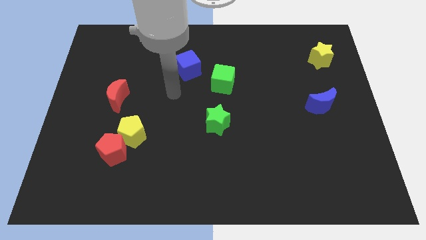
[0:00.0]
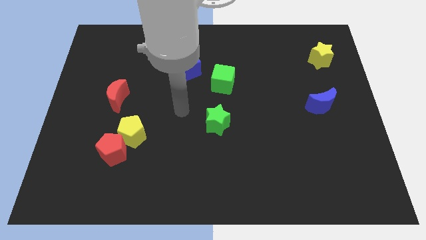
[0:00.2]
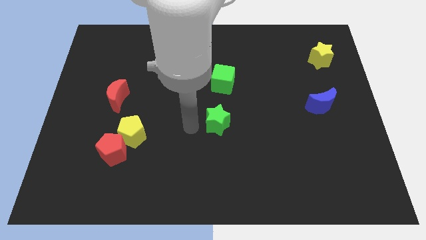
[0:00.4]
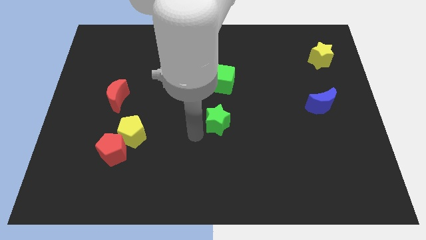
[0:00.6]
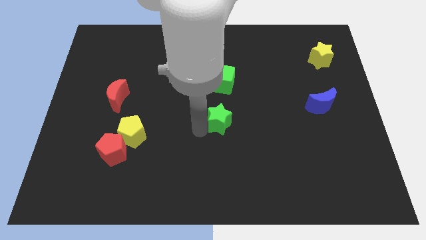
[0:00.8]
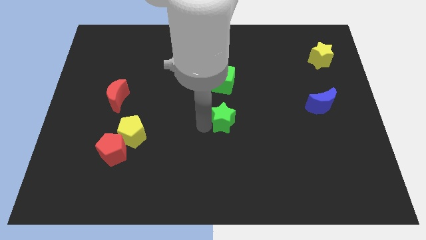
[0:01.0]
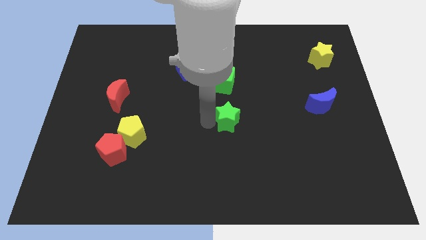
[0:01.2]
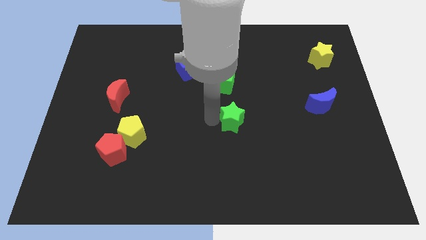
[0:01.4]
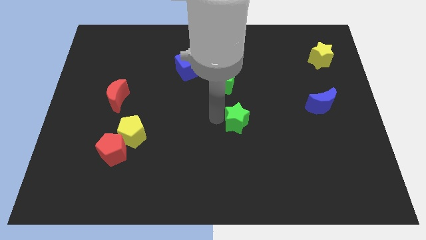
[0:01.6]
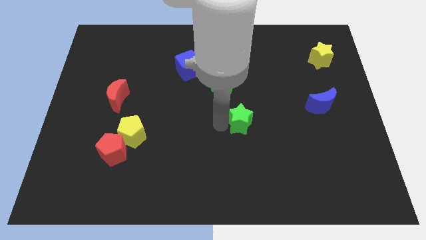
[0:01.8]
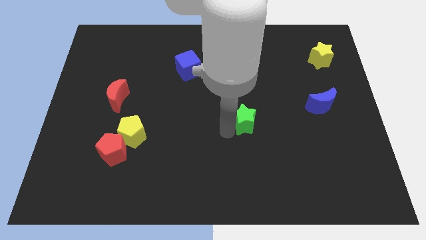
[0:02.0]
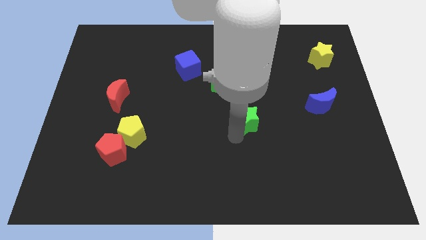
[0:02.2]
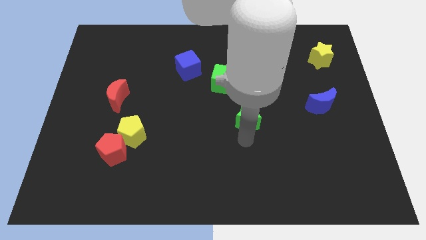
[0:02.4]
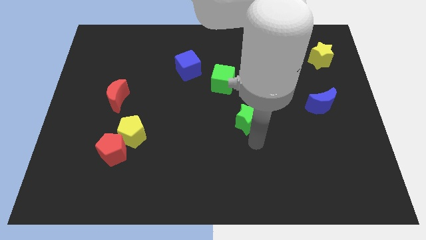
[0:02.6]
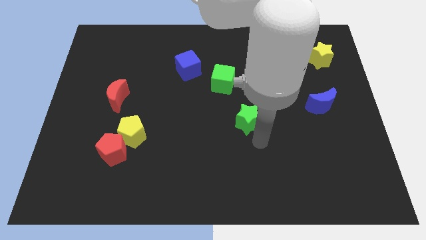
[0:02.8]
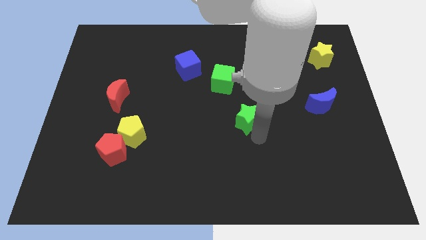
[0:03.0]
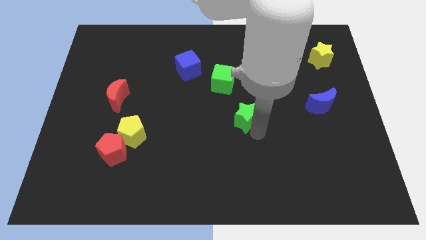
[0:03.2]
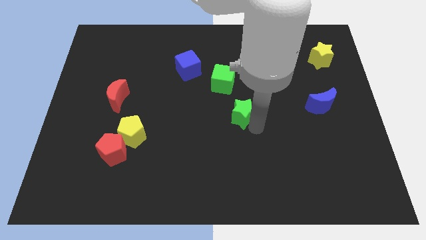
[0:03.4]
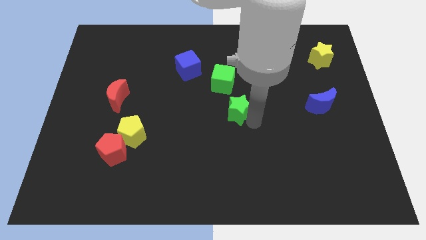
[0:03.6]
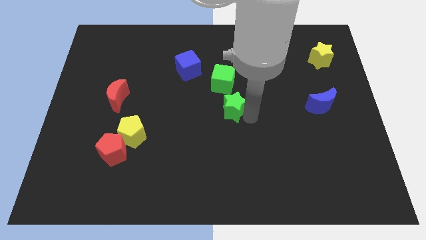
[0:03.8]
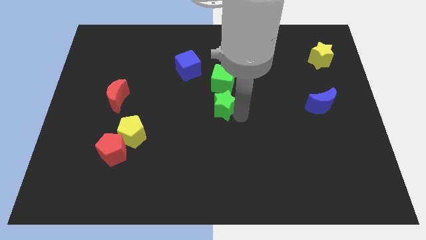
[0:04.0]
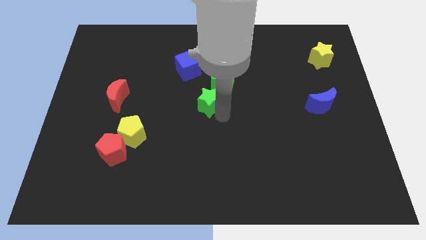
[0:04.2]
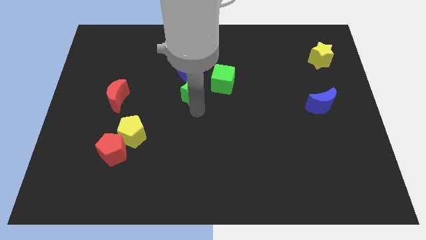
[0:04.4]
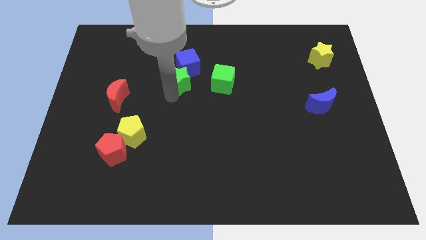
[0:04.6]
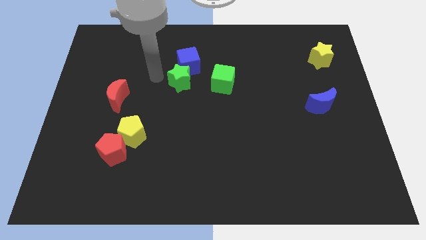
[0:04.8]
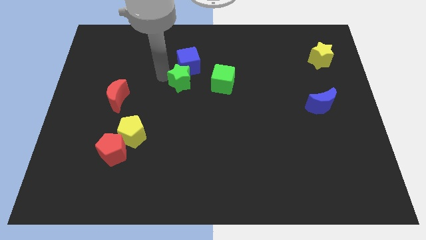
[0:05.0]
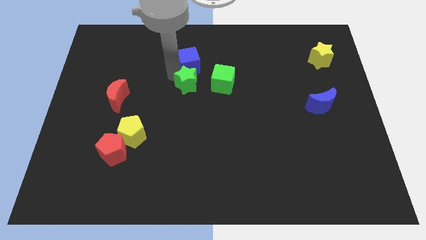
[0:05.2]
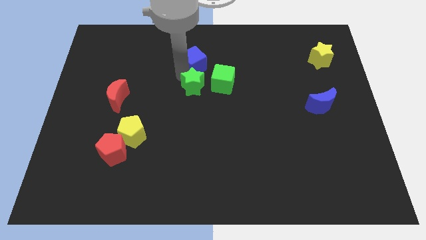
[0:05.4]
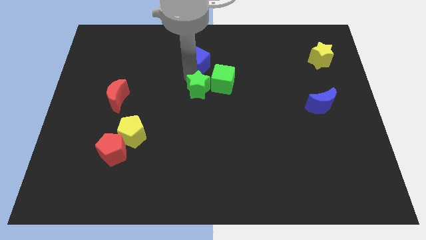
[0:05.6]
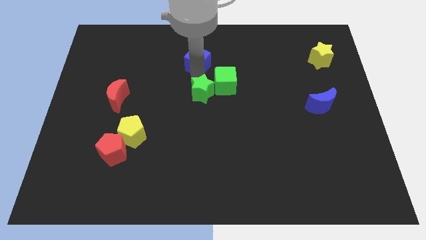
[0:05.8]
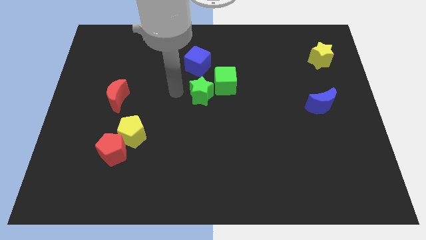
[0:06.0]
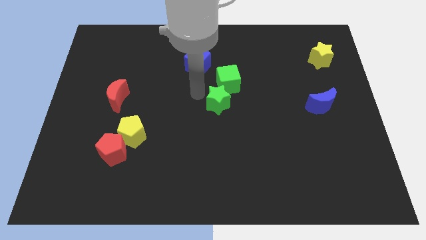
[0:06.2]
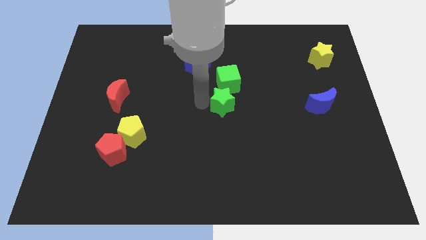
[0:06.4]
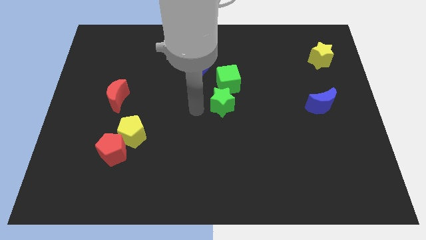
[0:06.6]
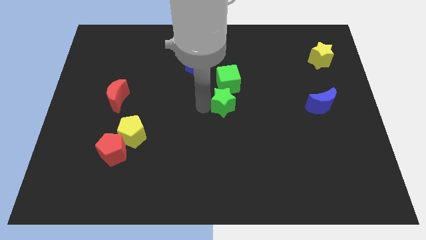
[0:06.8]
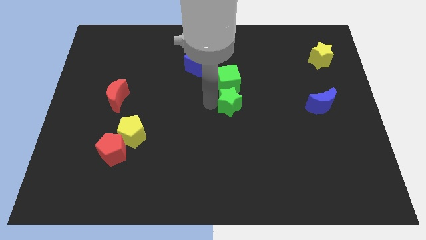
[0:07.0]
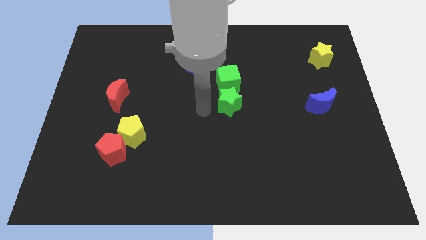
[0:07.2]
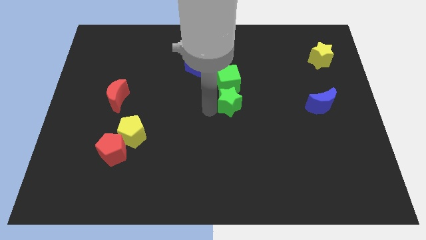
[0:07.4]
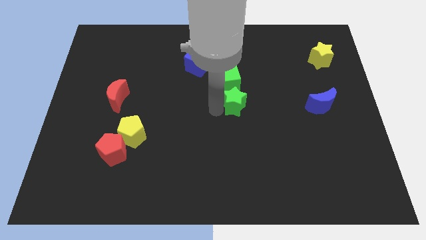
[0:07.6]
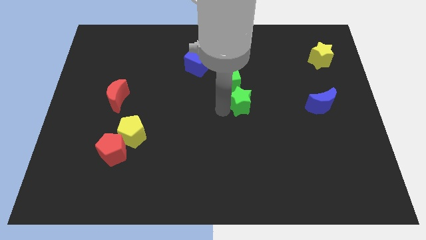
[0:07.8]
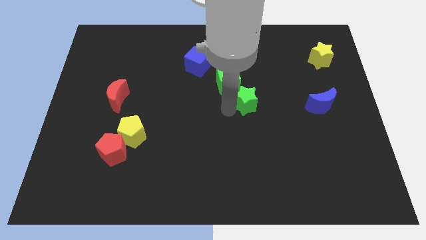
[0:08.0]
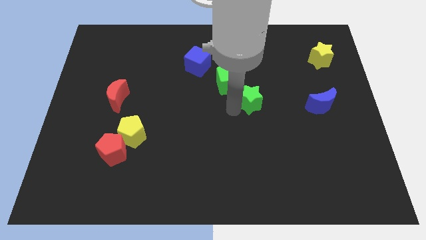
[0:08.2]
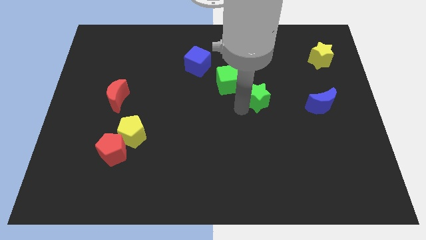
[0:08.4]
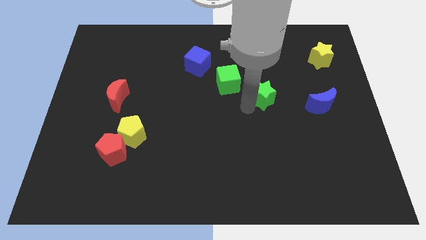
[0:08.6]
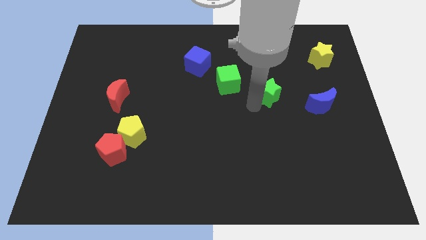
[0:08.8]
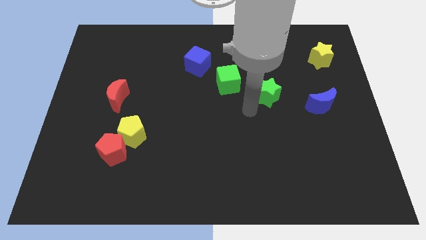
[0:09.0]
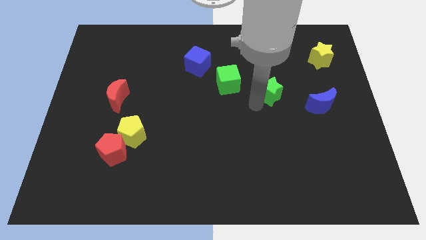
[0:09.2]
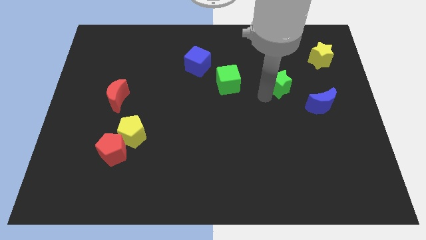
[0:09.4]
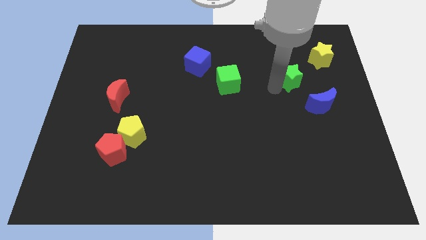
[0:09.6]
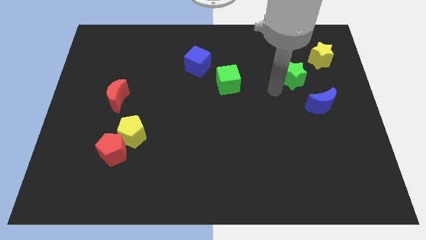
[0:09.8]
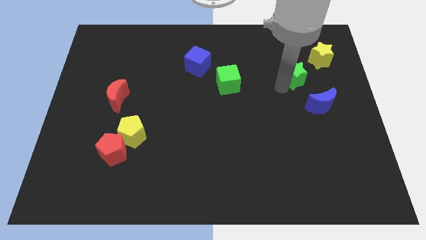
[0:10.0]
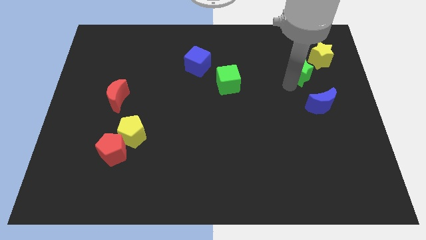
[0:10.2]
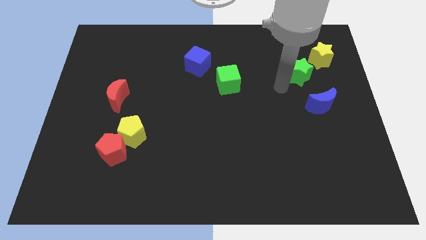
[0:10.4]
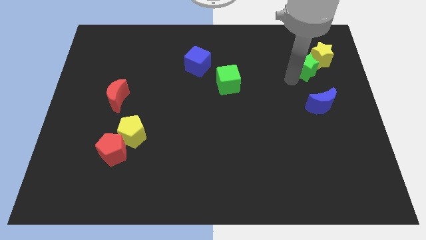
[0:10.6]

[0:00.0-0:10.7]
put the green star towards the yellow star

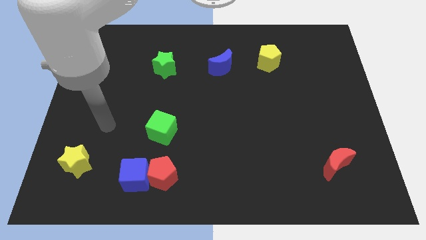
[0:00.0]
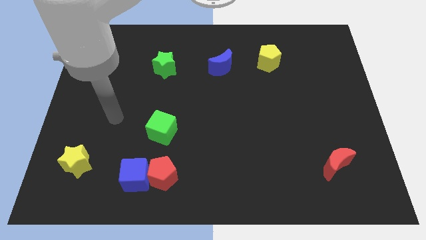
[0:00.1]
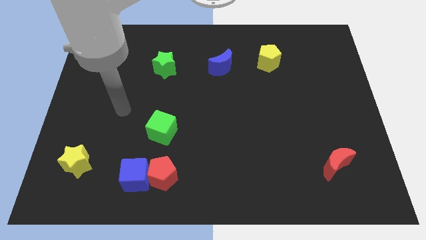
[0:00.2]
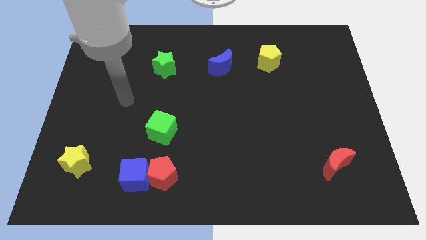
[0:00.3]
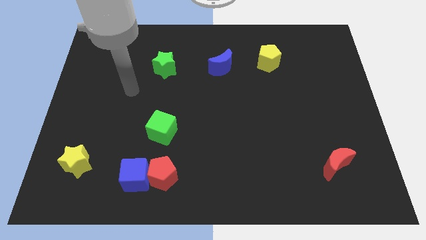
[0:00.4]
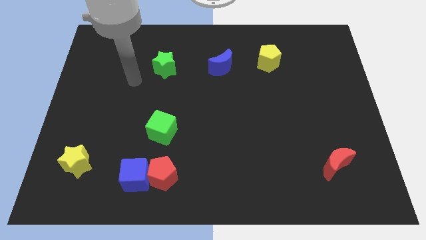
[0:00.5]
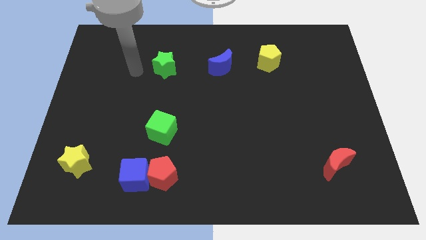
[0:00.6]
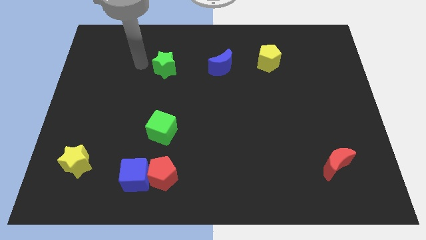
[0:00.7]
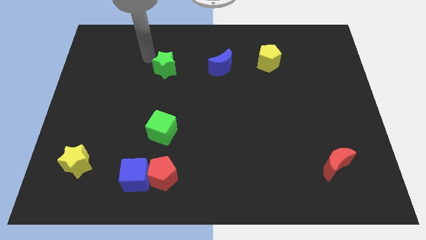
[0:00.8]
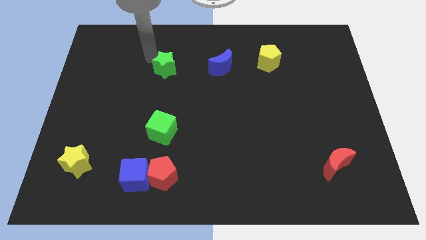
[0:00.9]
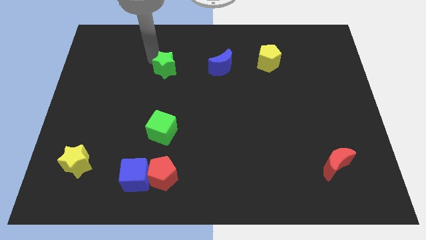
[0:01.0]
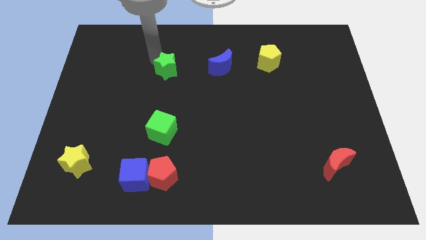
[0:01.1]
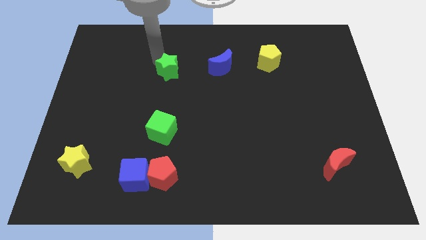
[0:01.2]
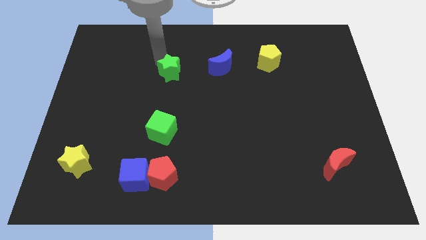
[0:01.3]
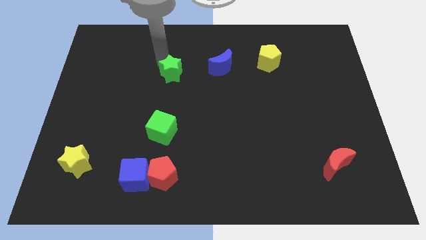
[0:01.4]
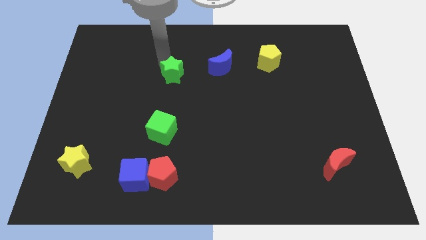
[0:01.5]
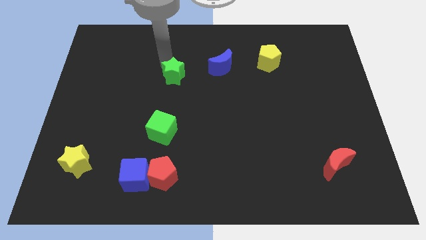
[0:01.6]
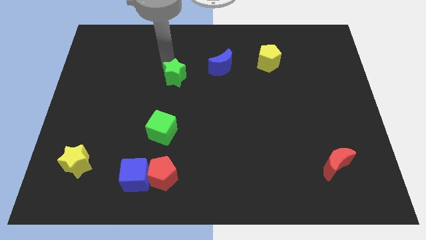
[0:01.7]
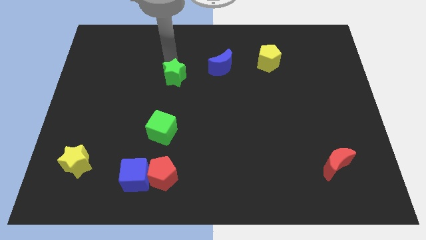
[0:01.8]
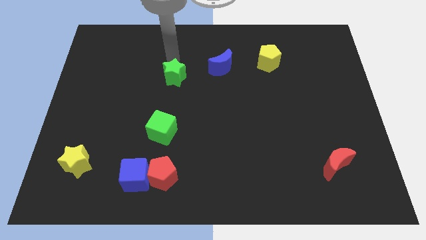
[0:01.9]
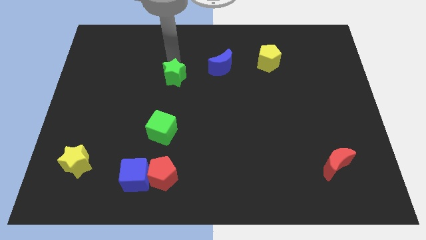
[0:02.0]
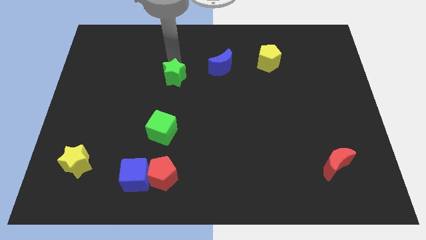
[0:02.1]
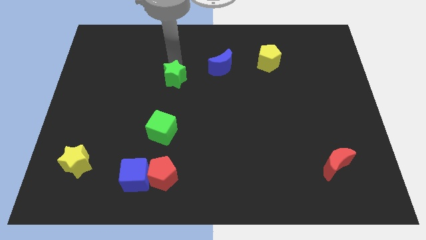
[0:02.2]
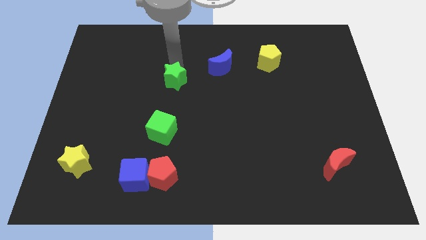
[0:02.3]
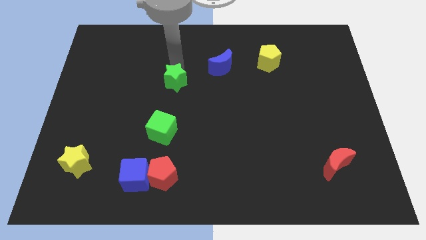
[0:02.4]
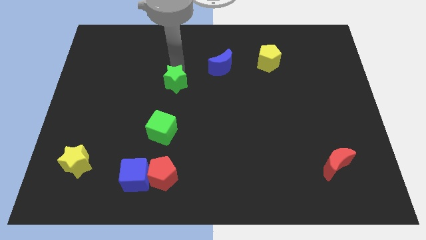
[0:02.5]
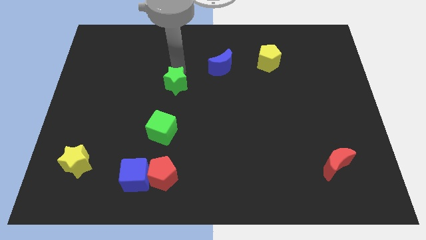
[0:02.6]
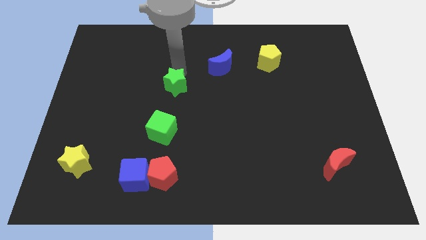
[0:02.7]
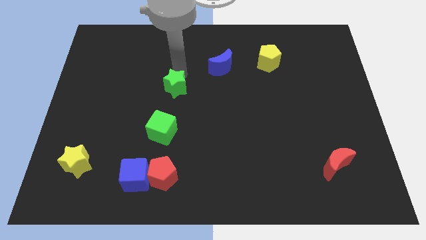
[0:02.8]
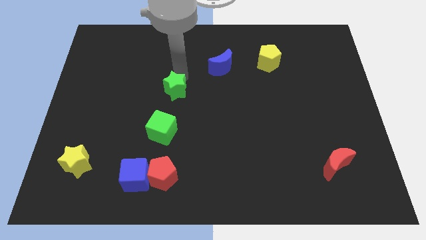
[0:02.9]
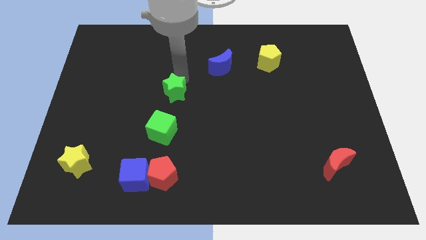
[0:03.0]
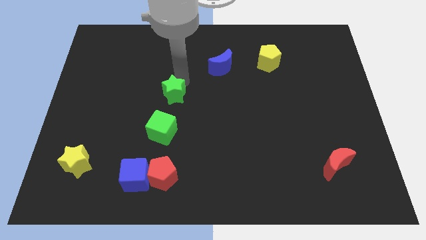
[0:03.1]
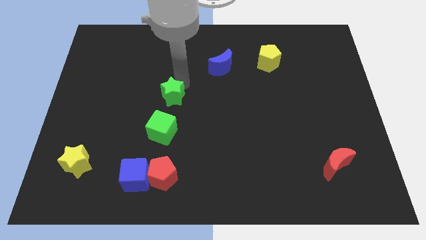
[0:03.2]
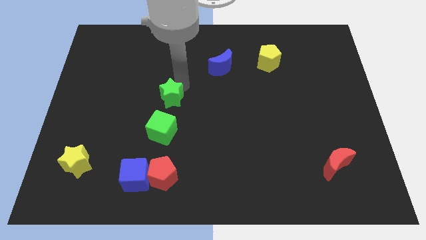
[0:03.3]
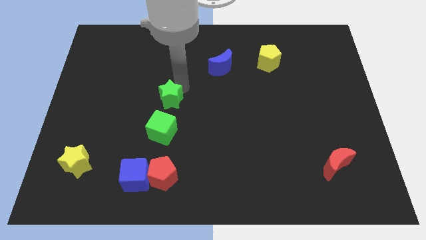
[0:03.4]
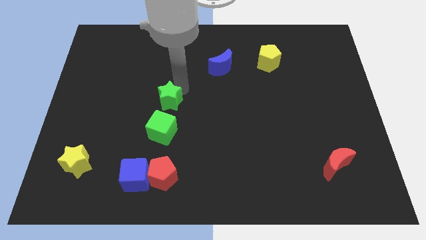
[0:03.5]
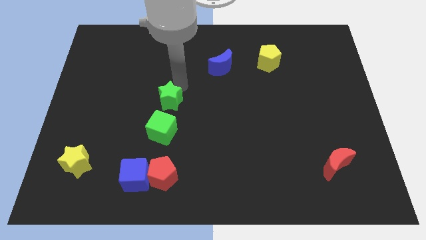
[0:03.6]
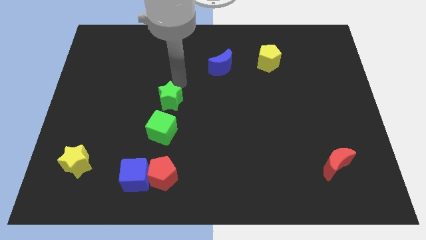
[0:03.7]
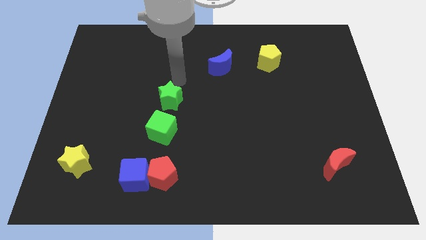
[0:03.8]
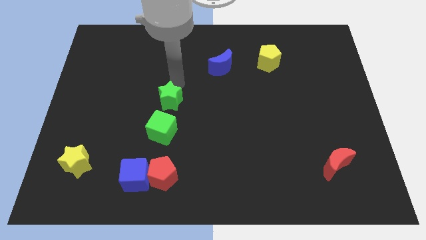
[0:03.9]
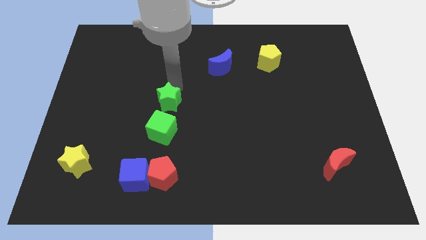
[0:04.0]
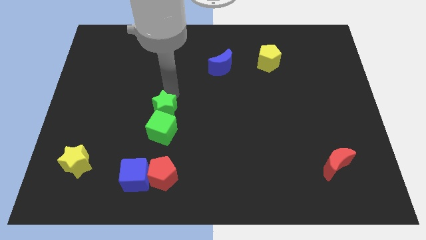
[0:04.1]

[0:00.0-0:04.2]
put the green star next to the green cube
